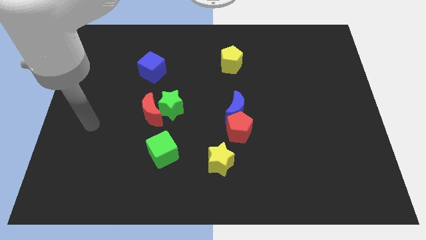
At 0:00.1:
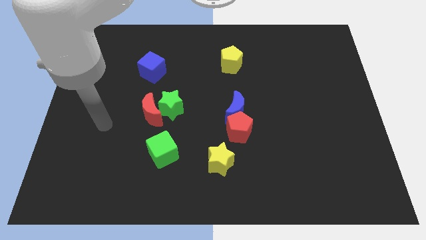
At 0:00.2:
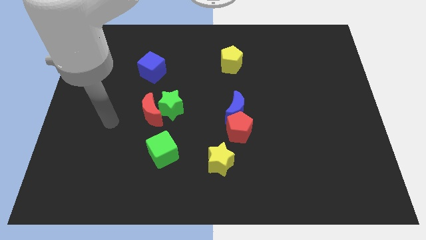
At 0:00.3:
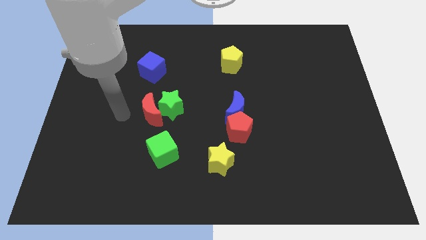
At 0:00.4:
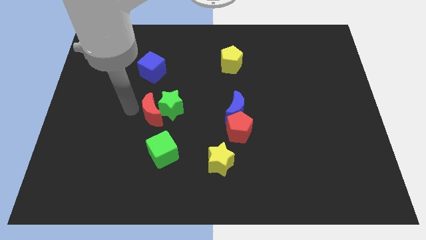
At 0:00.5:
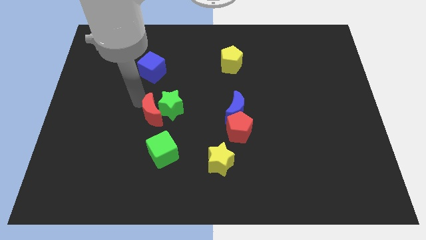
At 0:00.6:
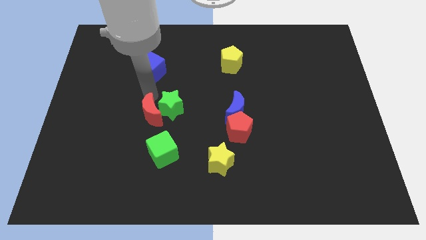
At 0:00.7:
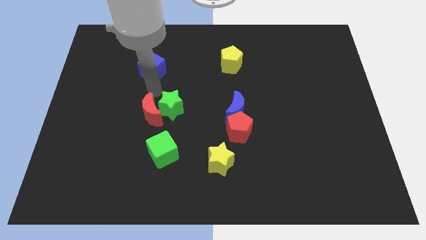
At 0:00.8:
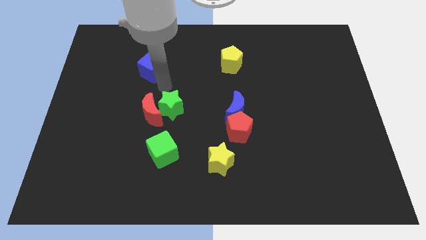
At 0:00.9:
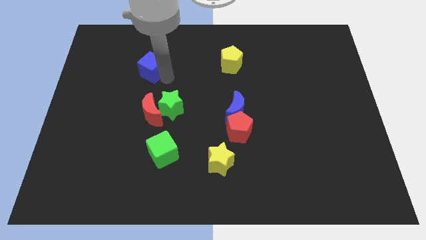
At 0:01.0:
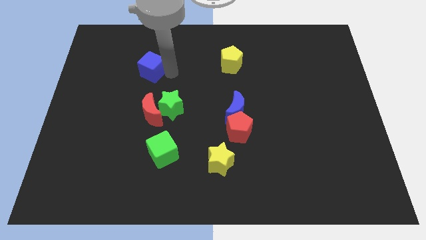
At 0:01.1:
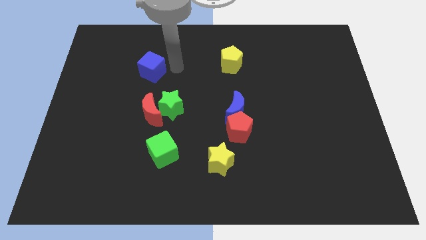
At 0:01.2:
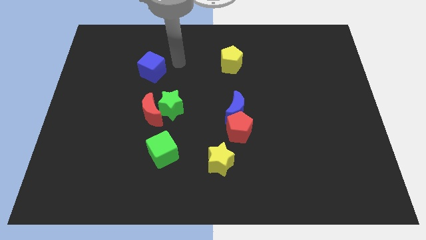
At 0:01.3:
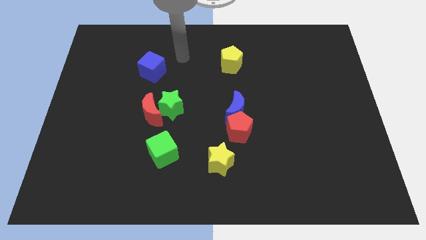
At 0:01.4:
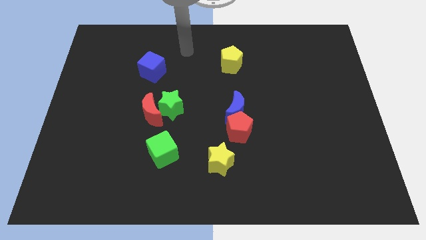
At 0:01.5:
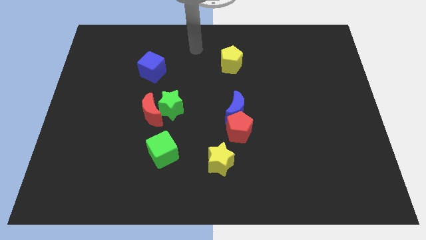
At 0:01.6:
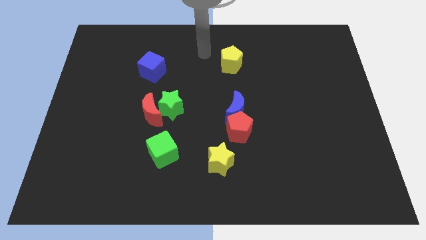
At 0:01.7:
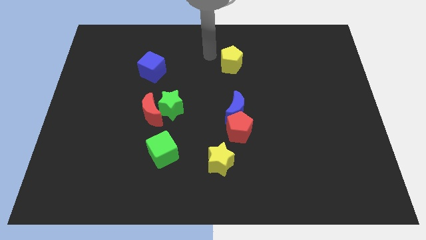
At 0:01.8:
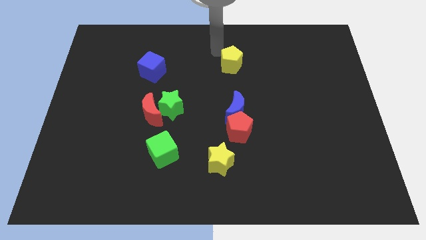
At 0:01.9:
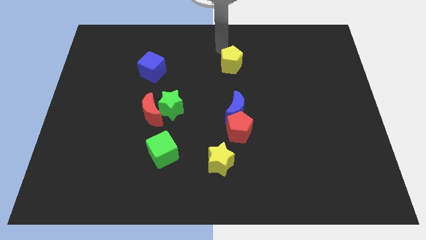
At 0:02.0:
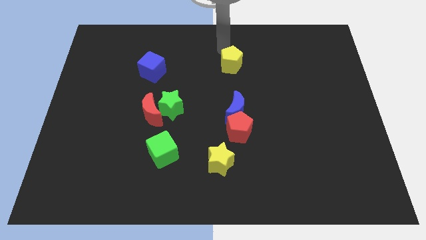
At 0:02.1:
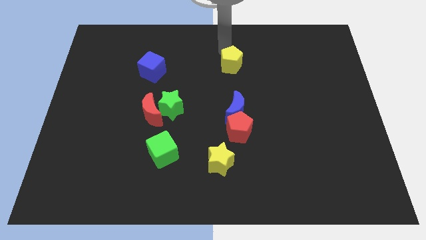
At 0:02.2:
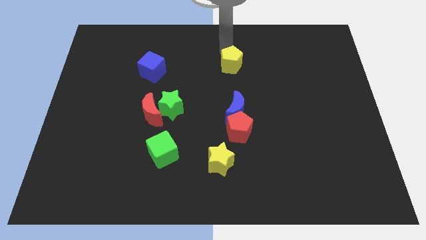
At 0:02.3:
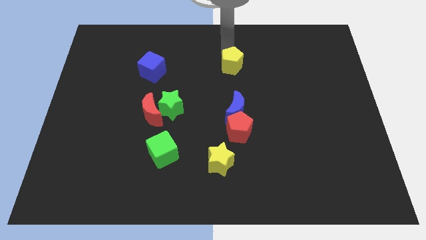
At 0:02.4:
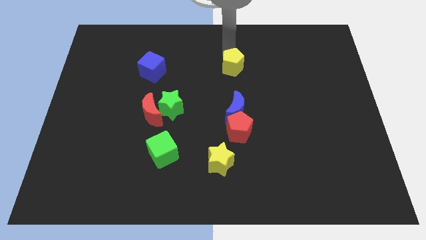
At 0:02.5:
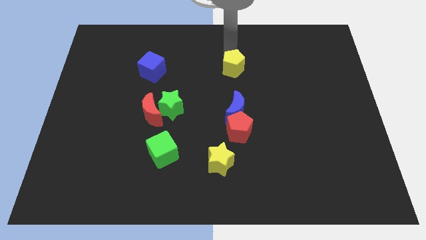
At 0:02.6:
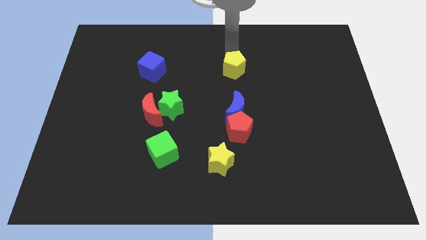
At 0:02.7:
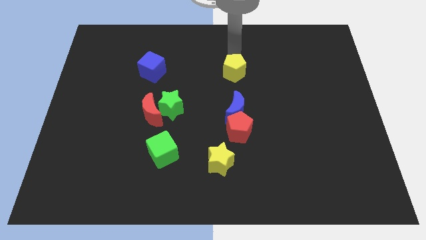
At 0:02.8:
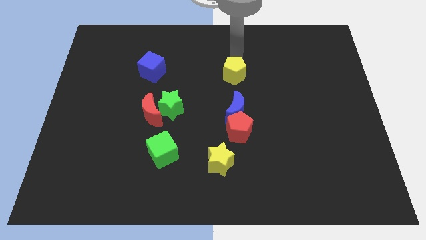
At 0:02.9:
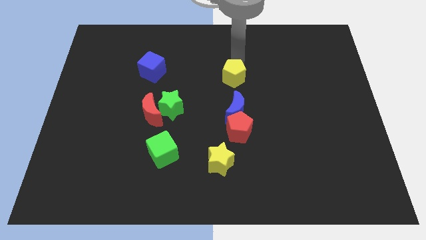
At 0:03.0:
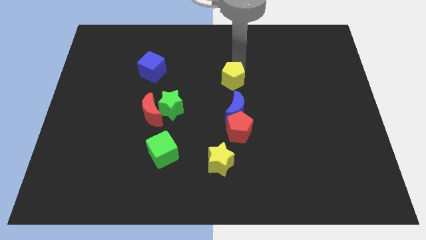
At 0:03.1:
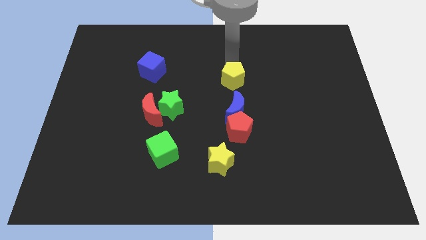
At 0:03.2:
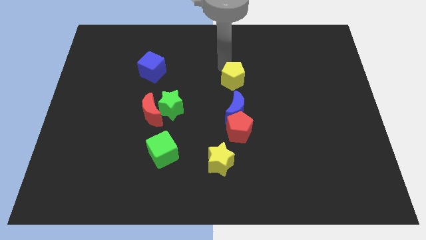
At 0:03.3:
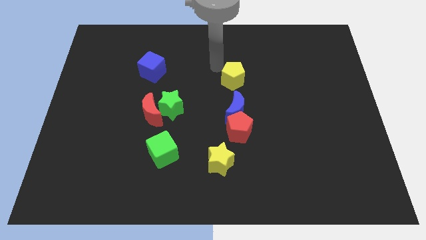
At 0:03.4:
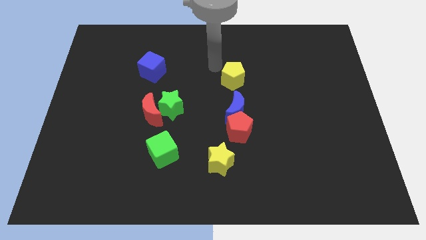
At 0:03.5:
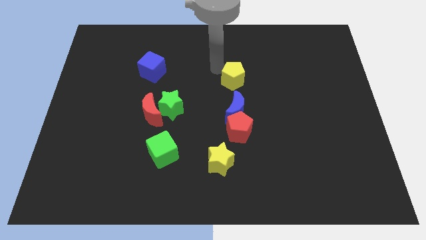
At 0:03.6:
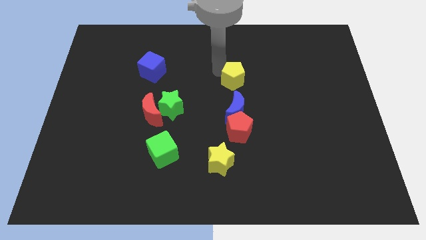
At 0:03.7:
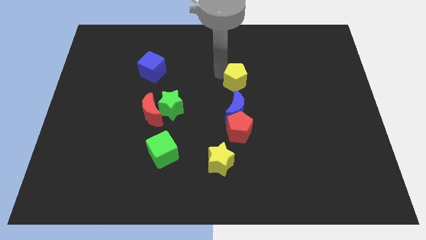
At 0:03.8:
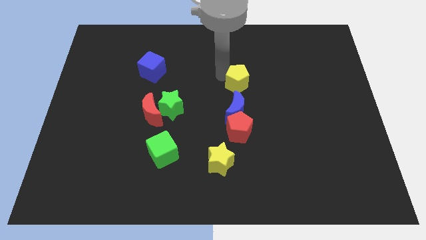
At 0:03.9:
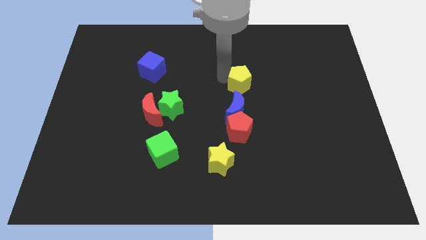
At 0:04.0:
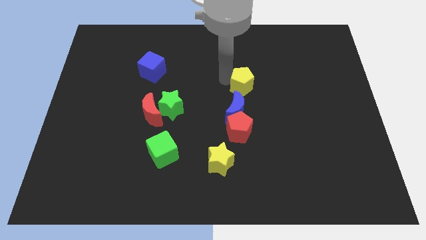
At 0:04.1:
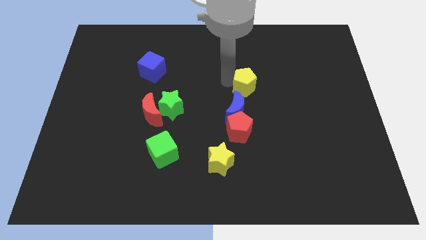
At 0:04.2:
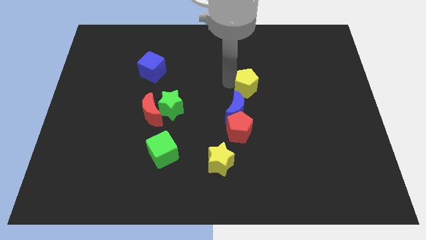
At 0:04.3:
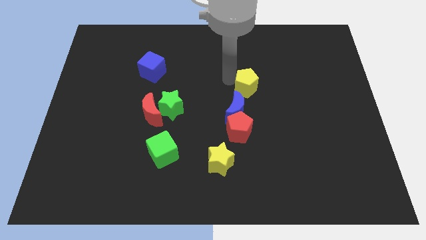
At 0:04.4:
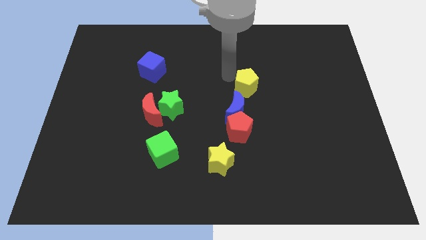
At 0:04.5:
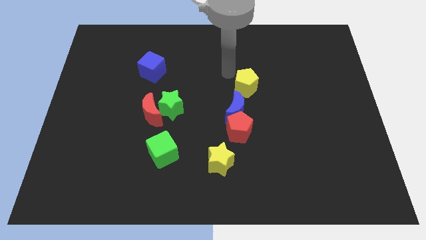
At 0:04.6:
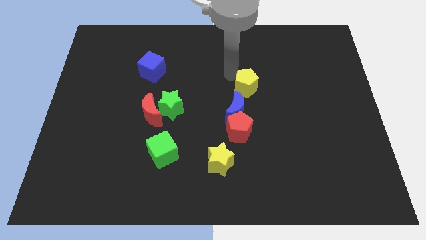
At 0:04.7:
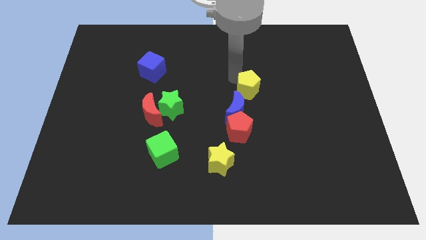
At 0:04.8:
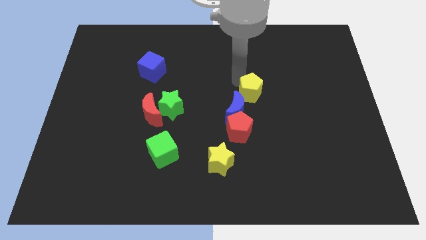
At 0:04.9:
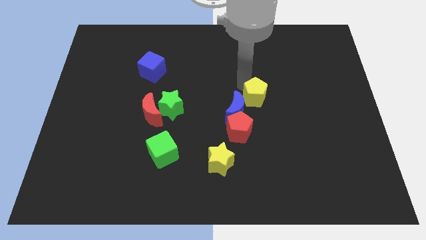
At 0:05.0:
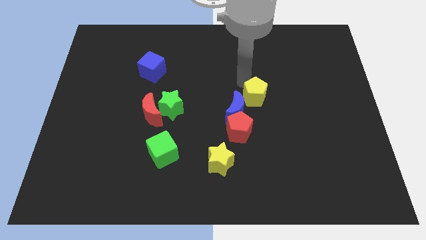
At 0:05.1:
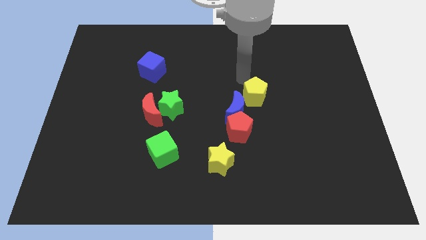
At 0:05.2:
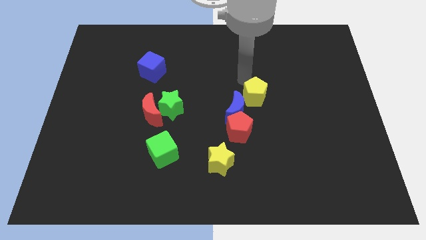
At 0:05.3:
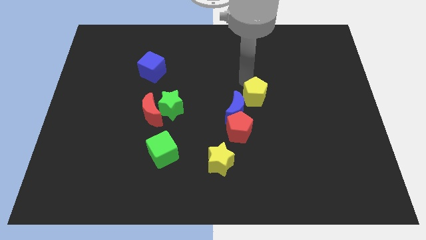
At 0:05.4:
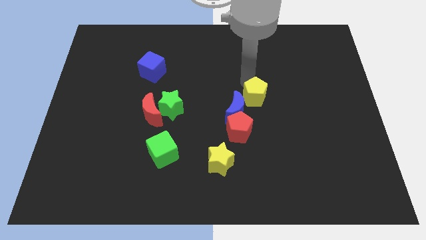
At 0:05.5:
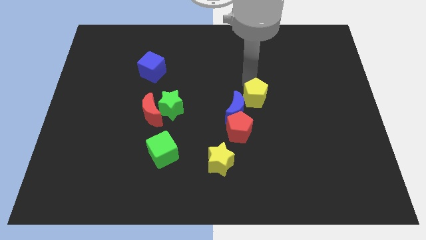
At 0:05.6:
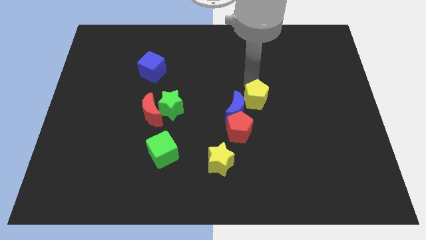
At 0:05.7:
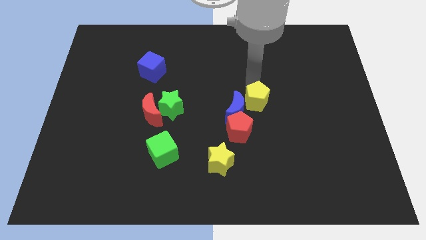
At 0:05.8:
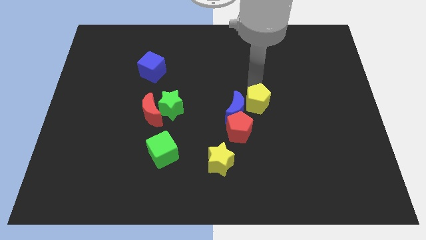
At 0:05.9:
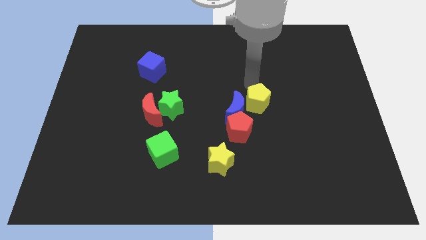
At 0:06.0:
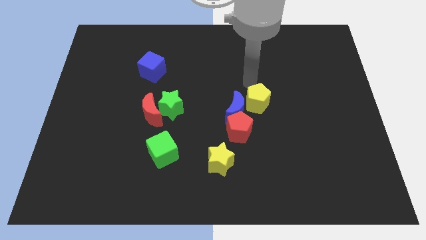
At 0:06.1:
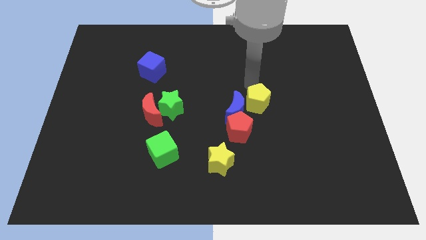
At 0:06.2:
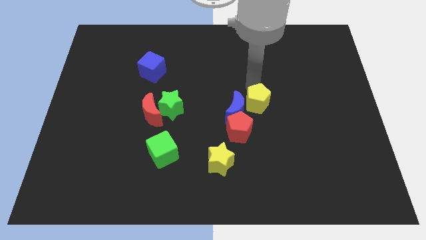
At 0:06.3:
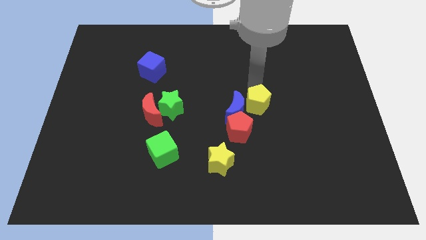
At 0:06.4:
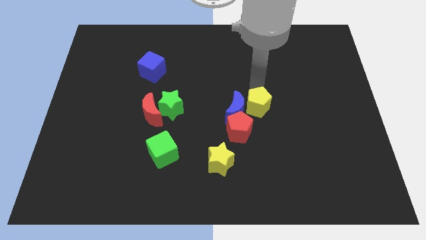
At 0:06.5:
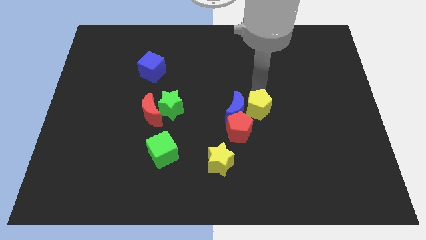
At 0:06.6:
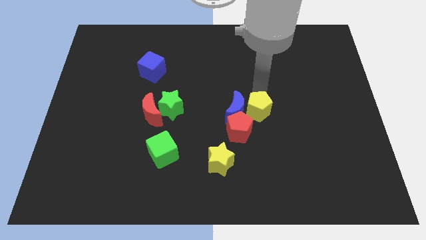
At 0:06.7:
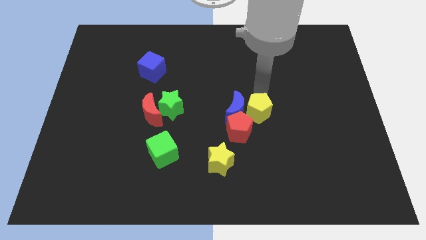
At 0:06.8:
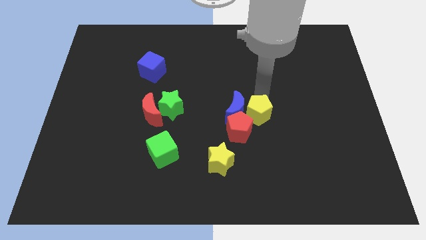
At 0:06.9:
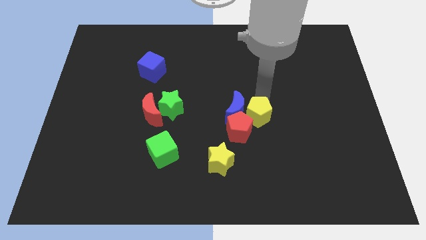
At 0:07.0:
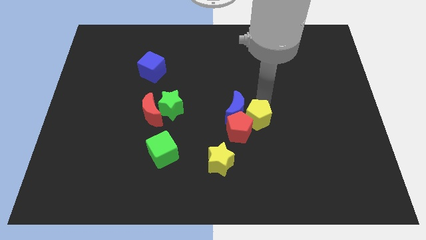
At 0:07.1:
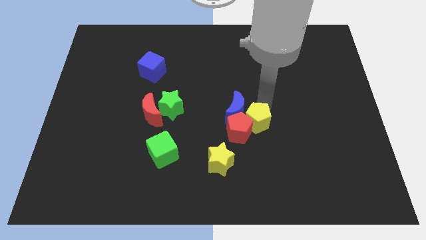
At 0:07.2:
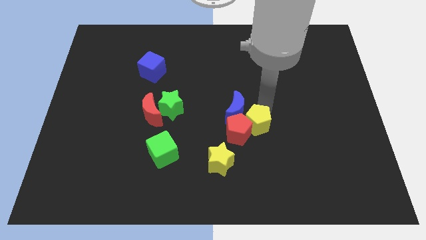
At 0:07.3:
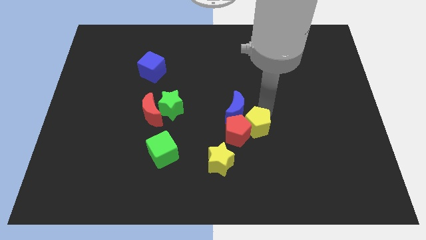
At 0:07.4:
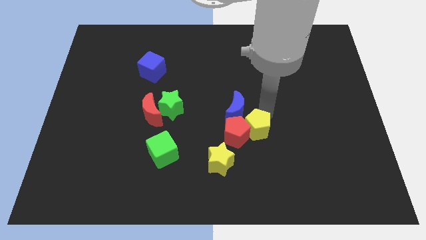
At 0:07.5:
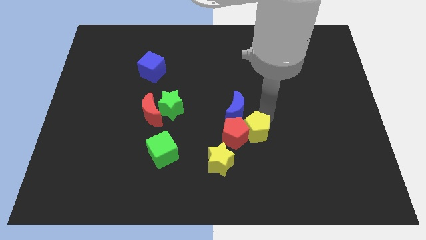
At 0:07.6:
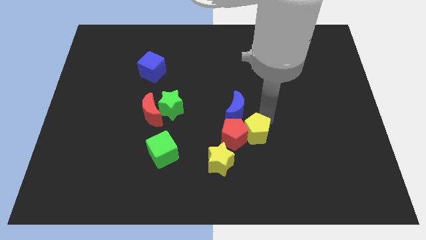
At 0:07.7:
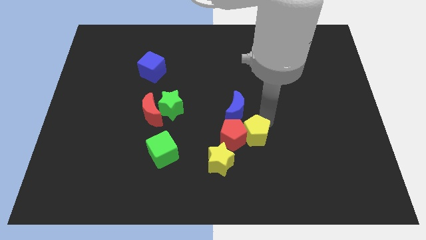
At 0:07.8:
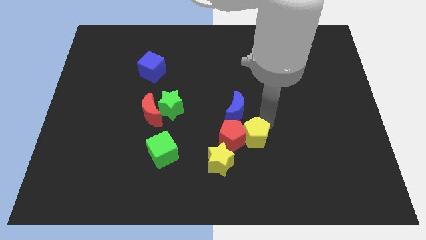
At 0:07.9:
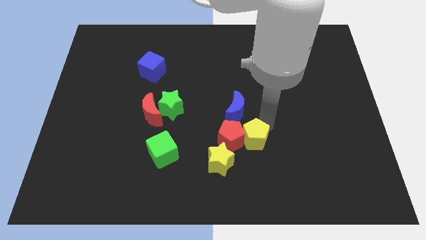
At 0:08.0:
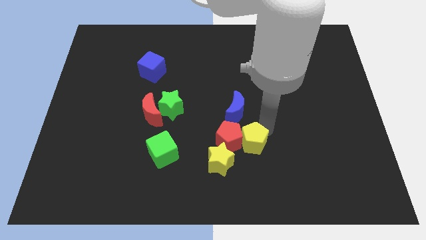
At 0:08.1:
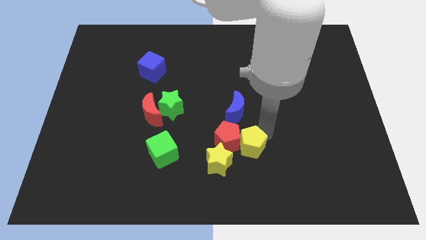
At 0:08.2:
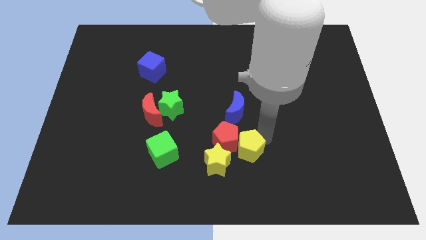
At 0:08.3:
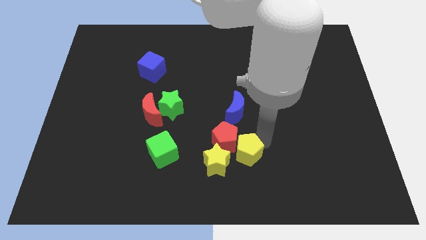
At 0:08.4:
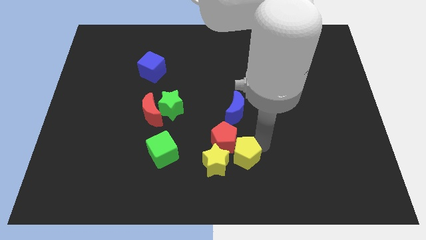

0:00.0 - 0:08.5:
push the yellow pentagon to the bottom side of the red pentagon

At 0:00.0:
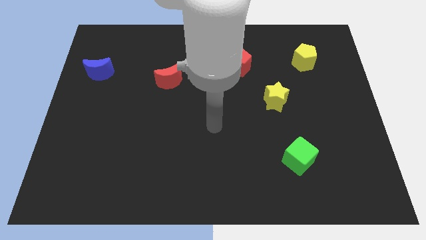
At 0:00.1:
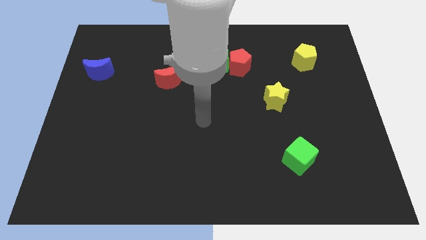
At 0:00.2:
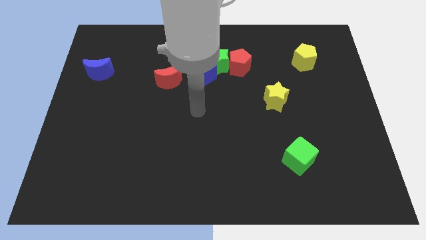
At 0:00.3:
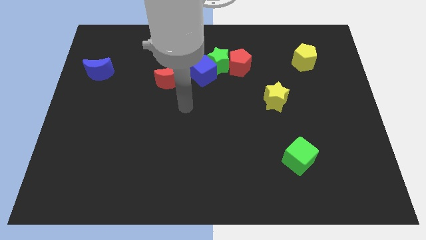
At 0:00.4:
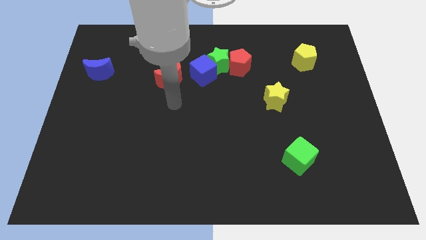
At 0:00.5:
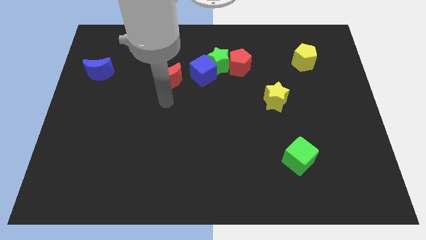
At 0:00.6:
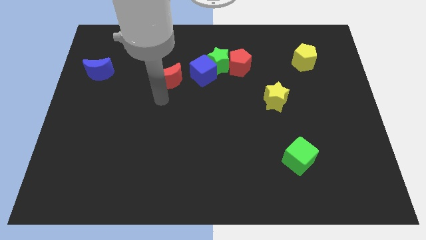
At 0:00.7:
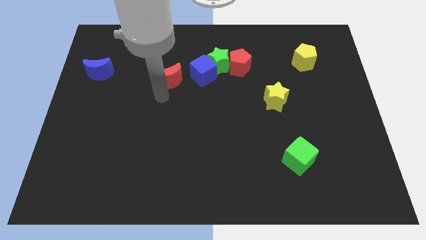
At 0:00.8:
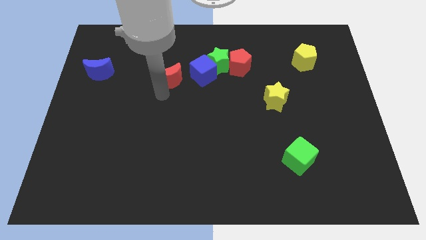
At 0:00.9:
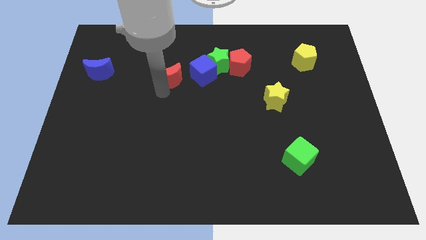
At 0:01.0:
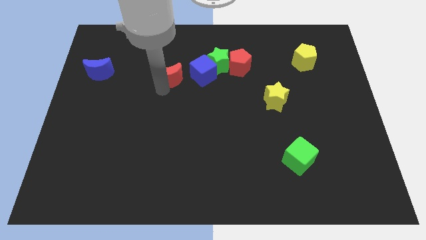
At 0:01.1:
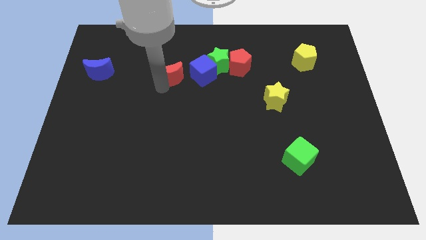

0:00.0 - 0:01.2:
move the red moon left of the green star
